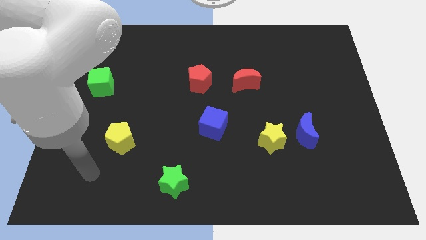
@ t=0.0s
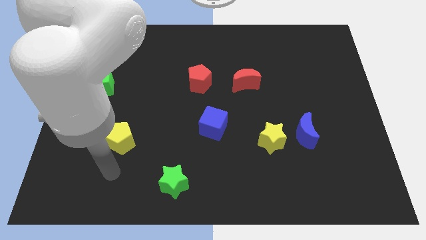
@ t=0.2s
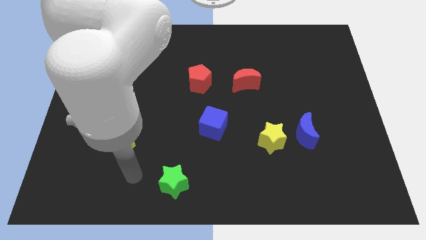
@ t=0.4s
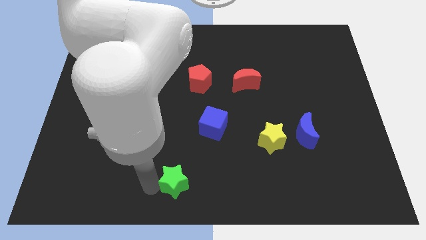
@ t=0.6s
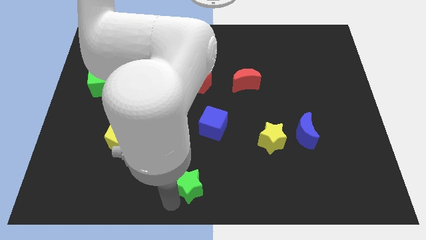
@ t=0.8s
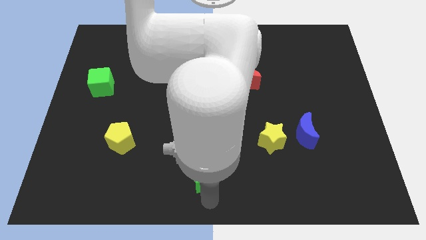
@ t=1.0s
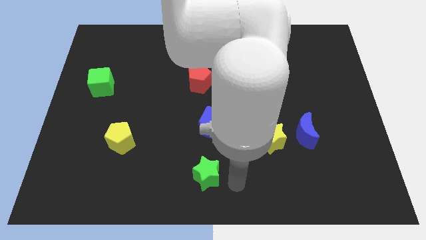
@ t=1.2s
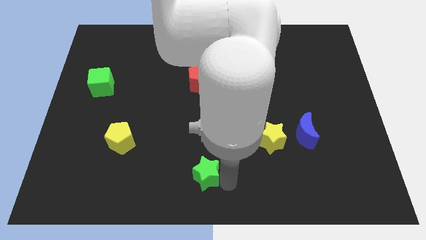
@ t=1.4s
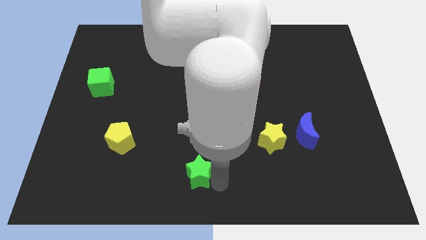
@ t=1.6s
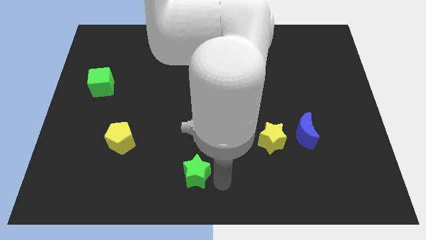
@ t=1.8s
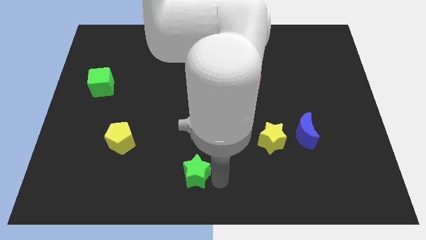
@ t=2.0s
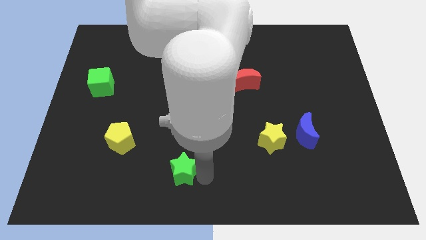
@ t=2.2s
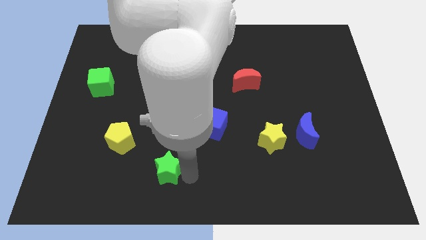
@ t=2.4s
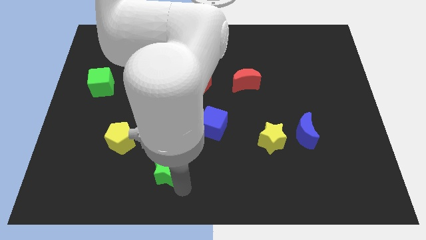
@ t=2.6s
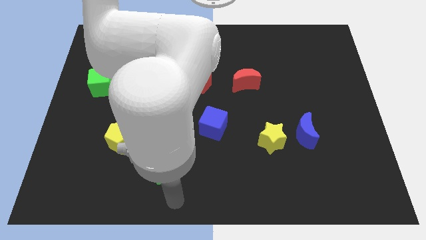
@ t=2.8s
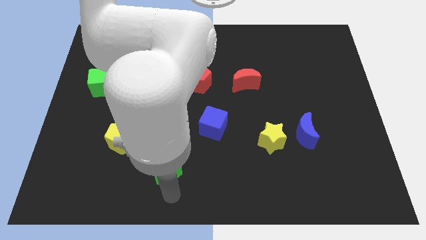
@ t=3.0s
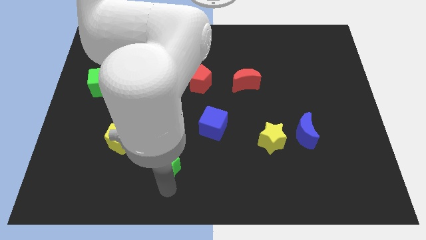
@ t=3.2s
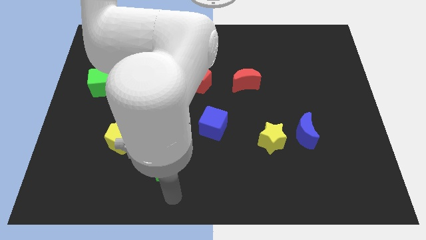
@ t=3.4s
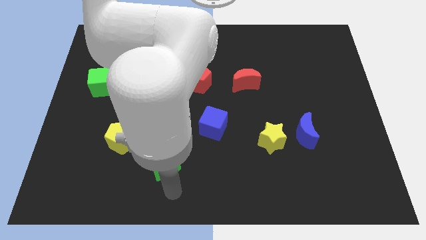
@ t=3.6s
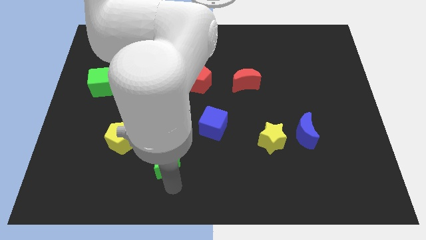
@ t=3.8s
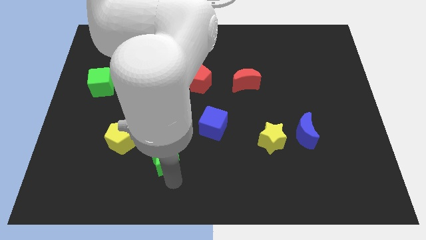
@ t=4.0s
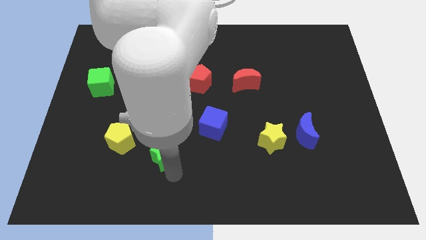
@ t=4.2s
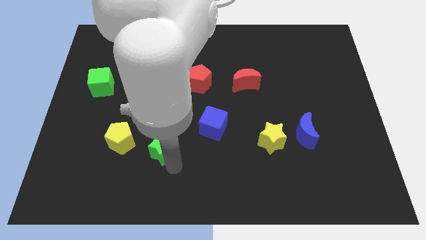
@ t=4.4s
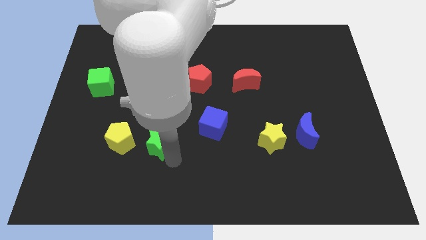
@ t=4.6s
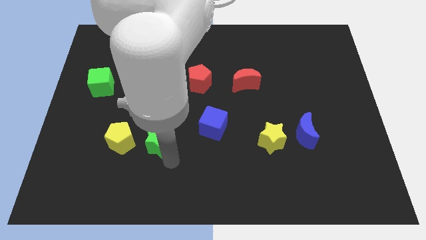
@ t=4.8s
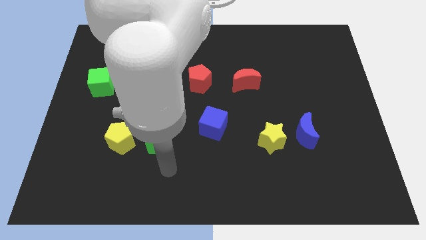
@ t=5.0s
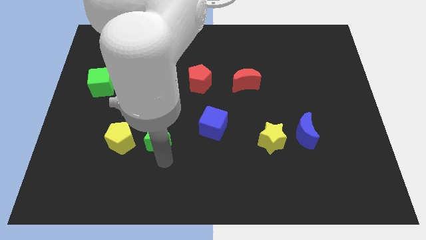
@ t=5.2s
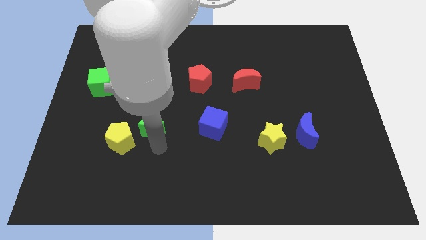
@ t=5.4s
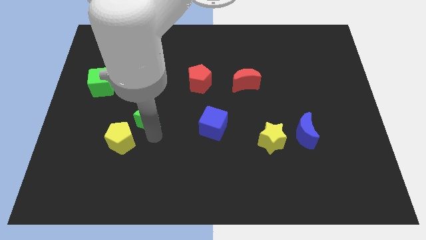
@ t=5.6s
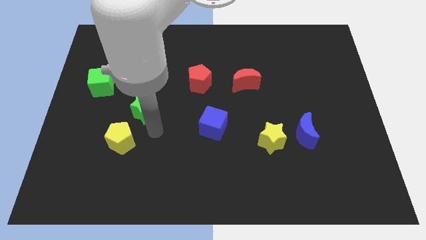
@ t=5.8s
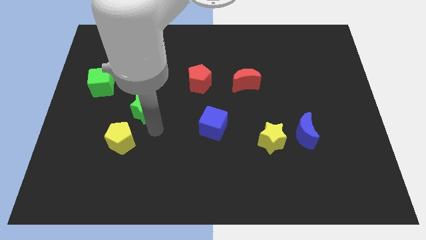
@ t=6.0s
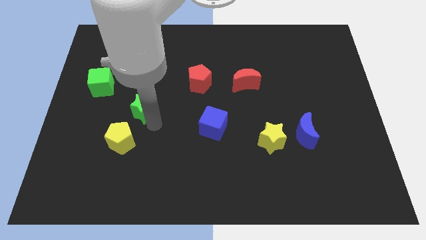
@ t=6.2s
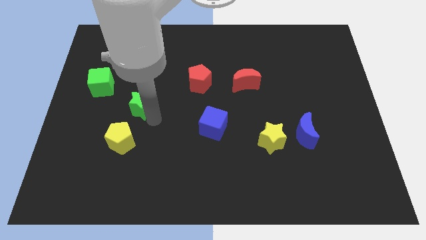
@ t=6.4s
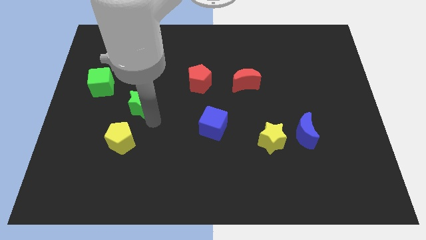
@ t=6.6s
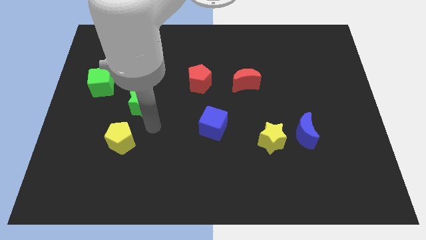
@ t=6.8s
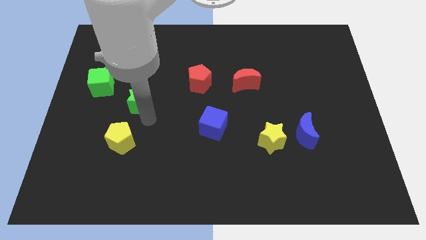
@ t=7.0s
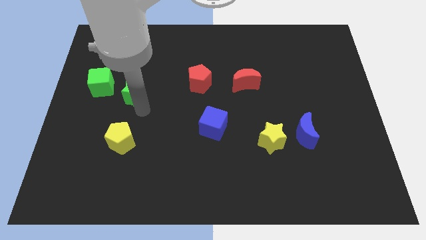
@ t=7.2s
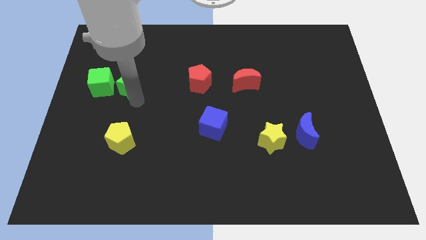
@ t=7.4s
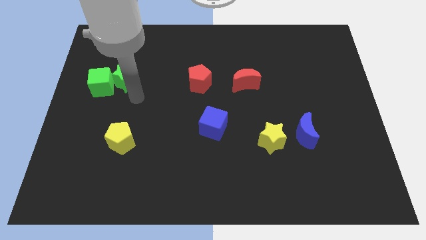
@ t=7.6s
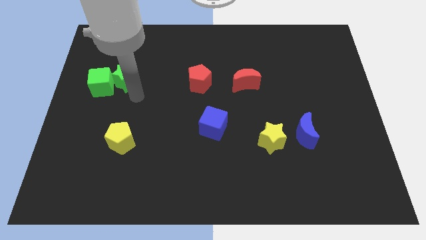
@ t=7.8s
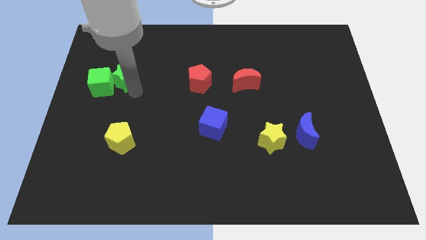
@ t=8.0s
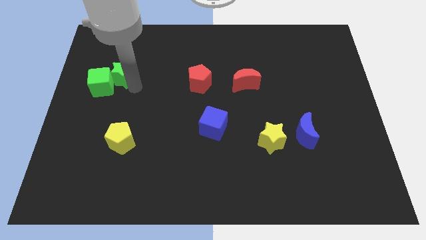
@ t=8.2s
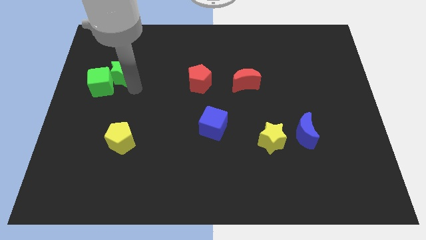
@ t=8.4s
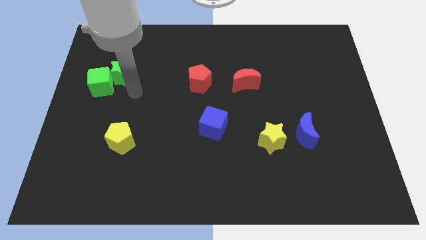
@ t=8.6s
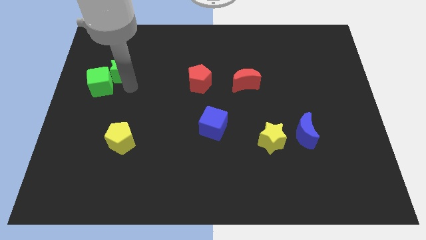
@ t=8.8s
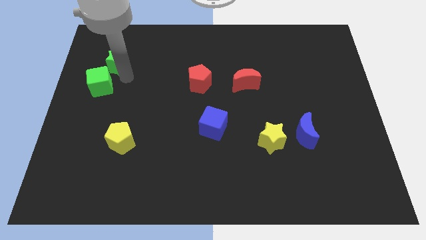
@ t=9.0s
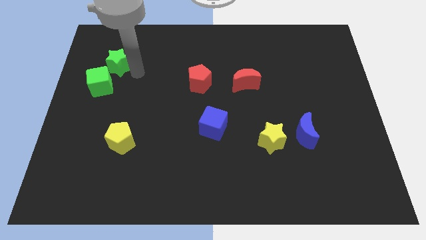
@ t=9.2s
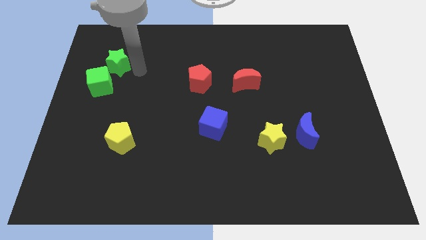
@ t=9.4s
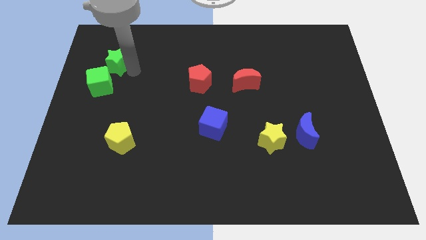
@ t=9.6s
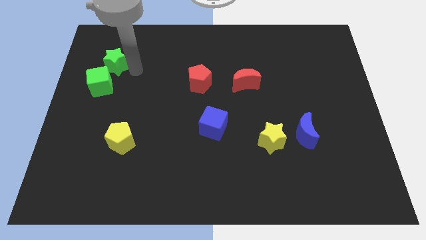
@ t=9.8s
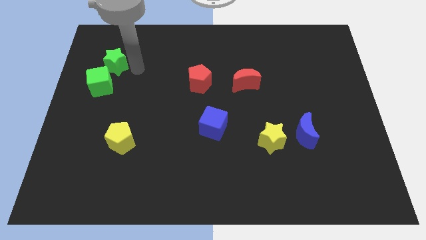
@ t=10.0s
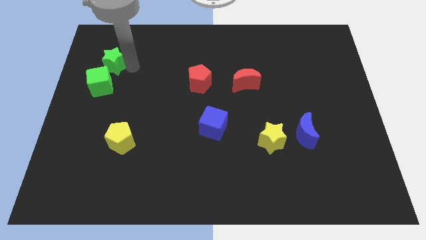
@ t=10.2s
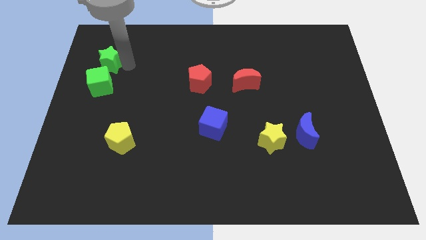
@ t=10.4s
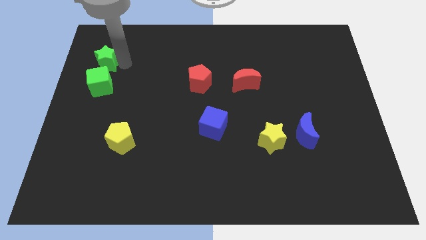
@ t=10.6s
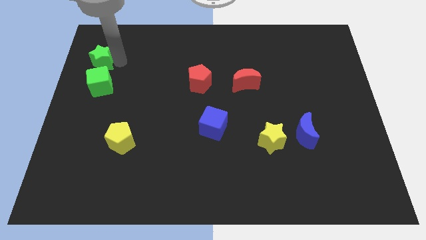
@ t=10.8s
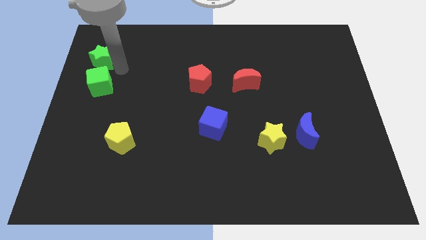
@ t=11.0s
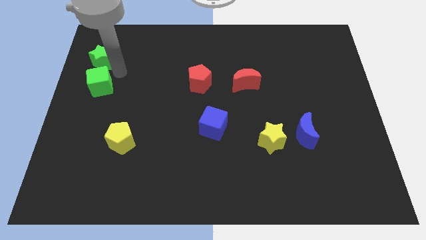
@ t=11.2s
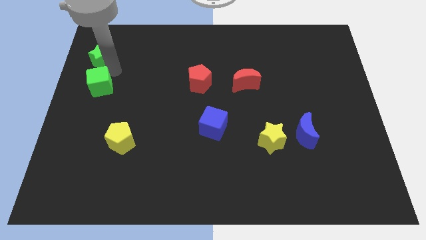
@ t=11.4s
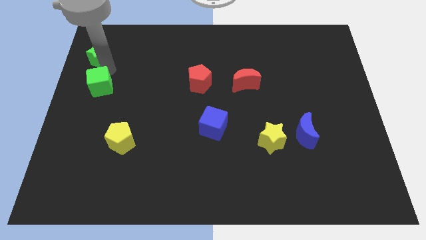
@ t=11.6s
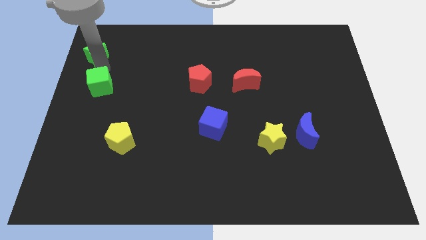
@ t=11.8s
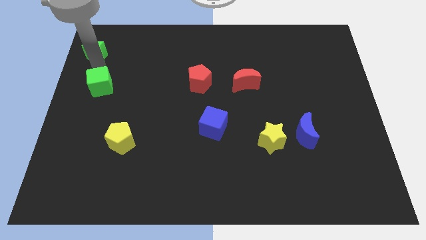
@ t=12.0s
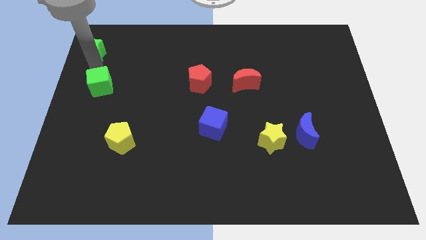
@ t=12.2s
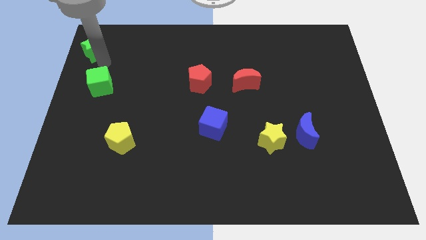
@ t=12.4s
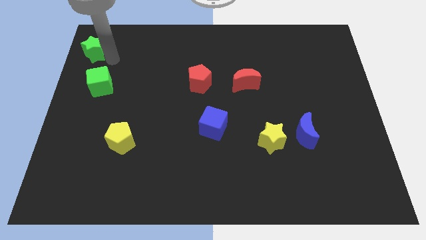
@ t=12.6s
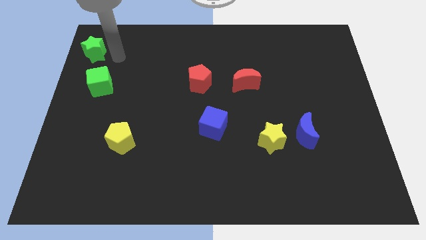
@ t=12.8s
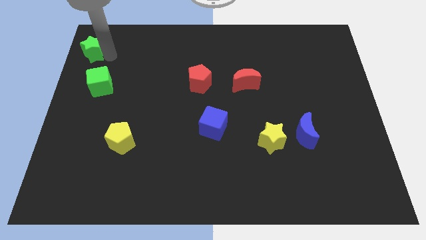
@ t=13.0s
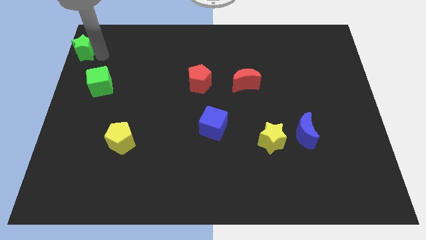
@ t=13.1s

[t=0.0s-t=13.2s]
push the green star to the top left of the board
